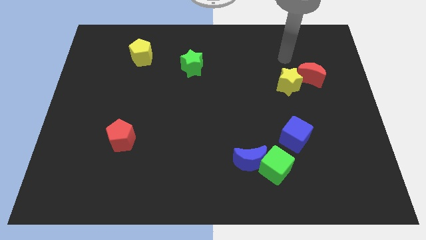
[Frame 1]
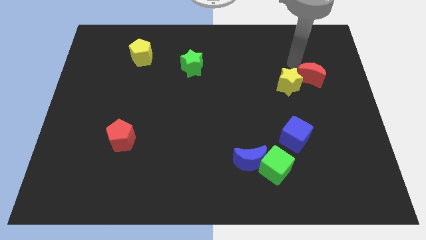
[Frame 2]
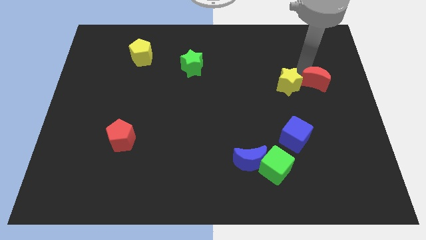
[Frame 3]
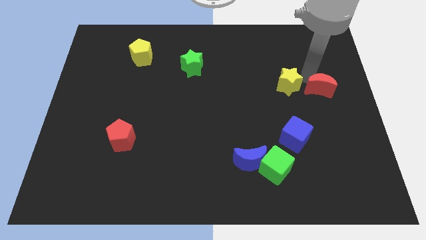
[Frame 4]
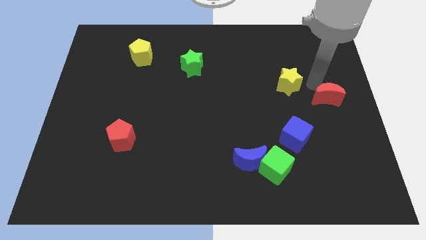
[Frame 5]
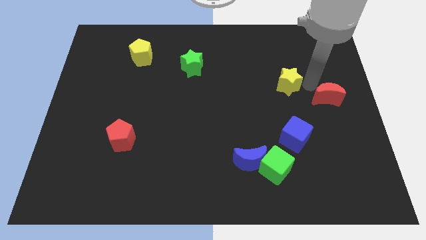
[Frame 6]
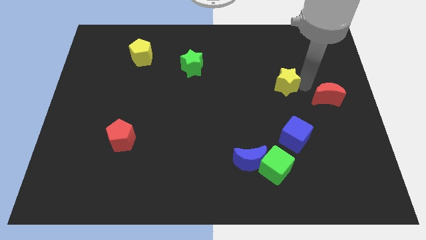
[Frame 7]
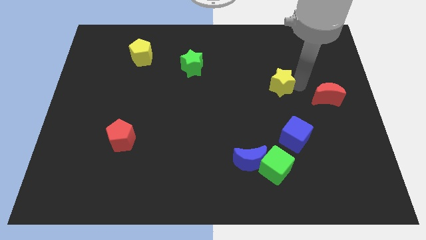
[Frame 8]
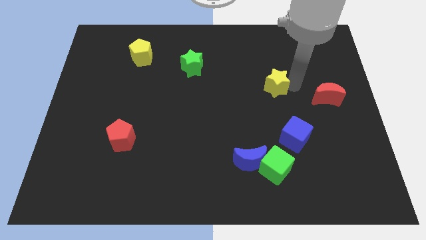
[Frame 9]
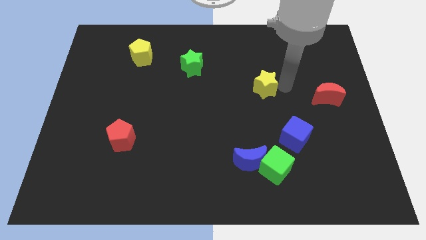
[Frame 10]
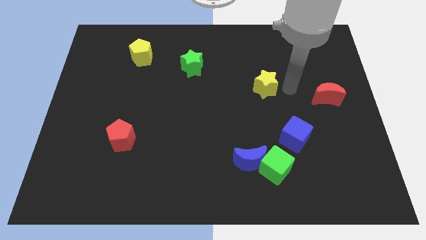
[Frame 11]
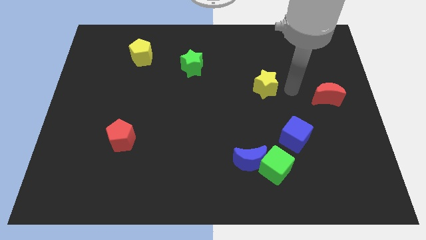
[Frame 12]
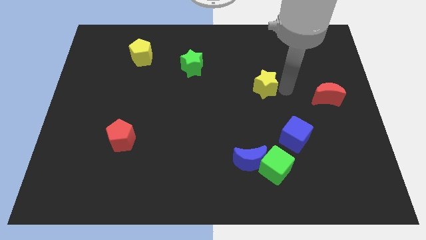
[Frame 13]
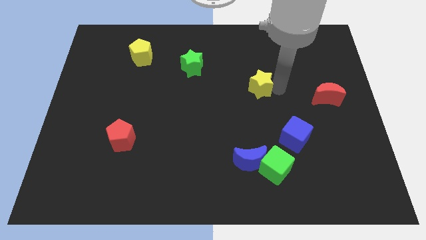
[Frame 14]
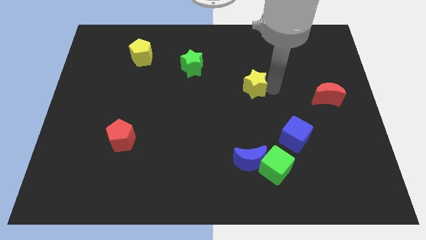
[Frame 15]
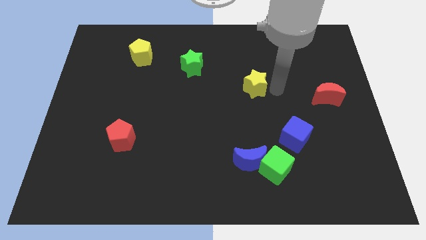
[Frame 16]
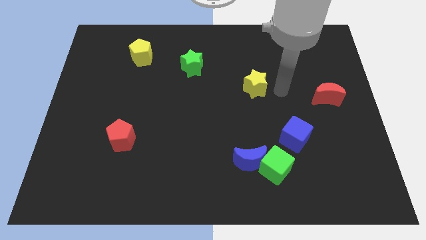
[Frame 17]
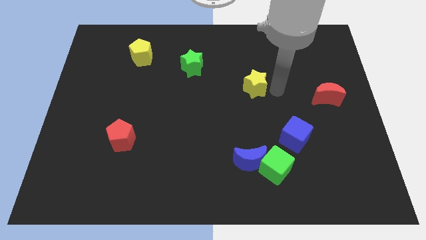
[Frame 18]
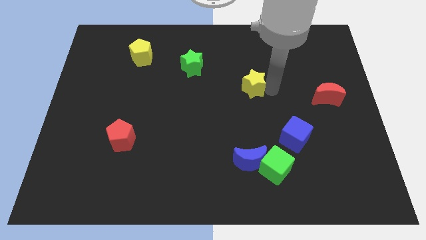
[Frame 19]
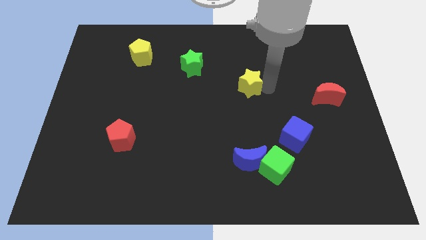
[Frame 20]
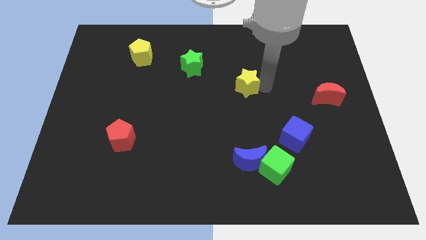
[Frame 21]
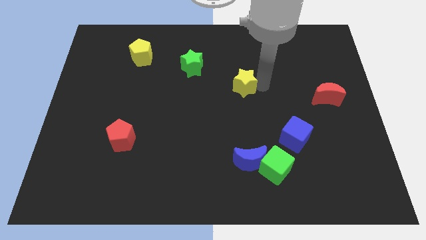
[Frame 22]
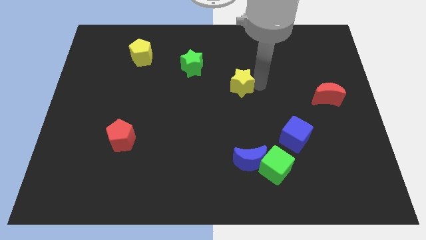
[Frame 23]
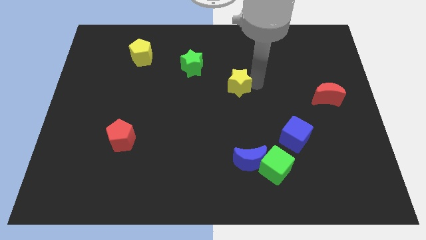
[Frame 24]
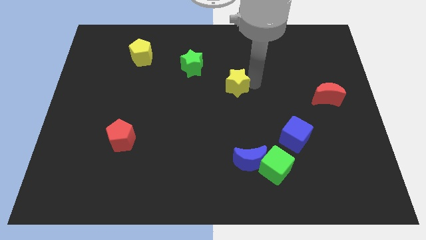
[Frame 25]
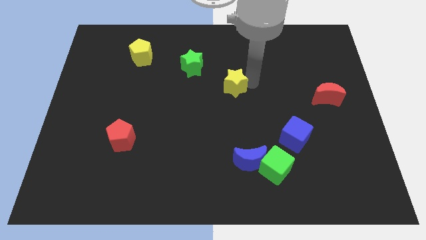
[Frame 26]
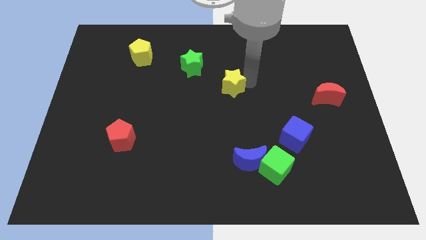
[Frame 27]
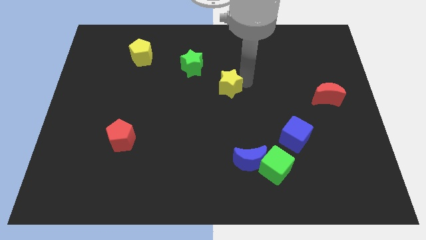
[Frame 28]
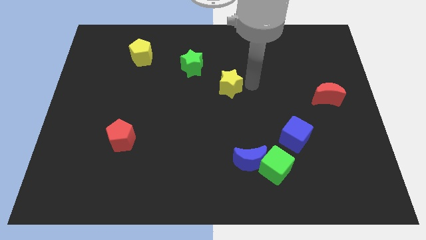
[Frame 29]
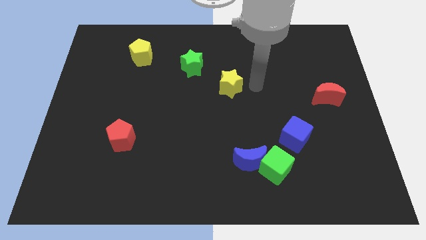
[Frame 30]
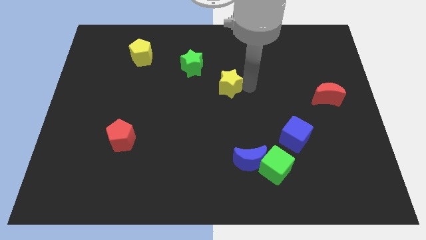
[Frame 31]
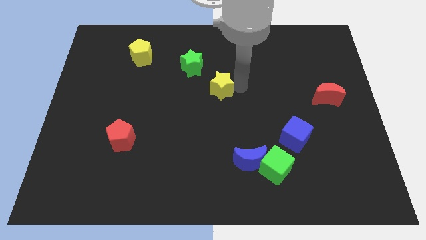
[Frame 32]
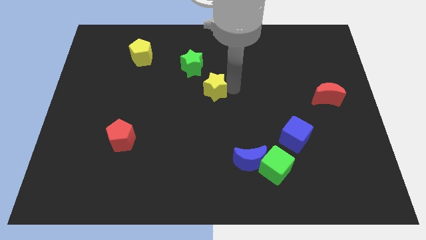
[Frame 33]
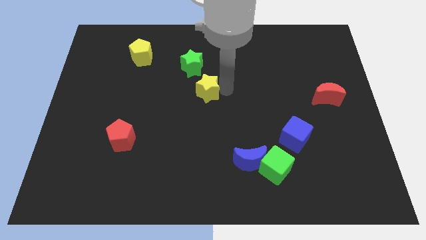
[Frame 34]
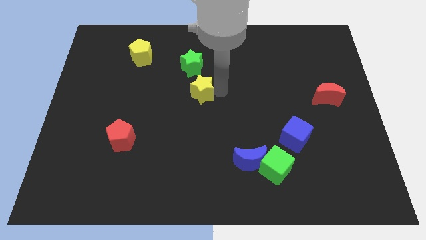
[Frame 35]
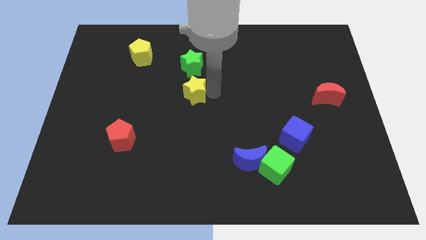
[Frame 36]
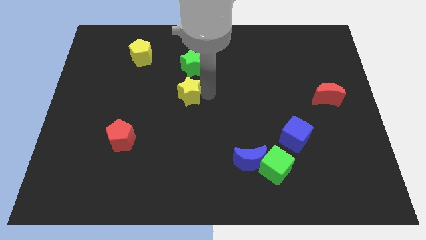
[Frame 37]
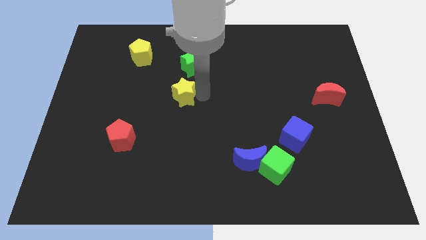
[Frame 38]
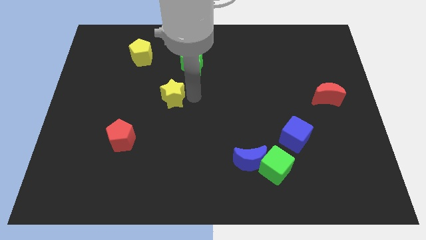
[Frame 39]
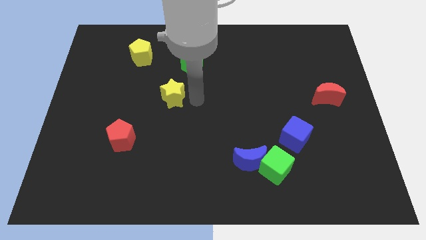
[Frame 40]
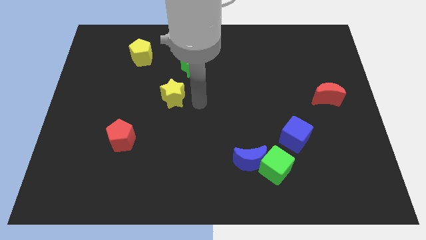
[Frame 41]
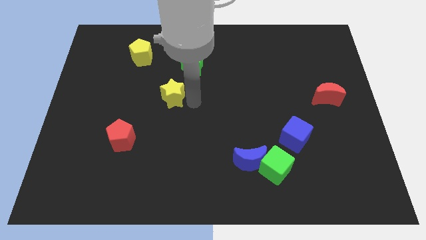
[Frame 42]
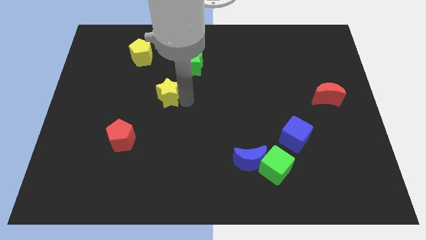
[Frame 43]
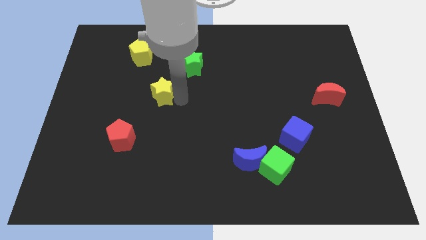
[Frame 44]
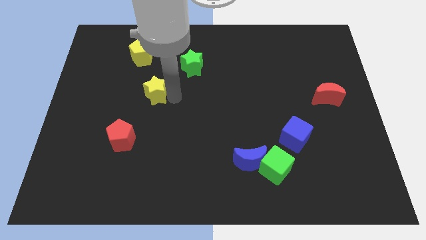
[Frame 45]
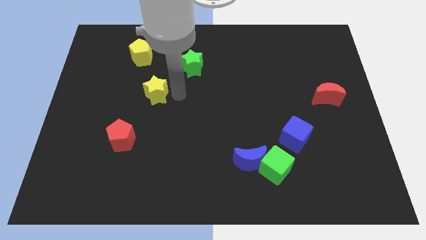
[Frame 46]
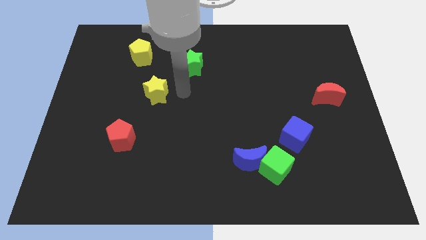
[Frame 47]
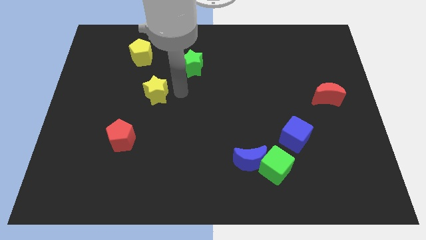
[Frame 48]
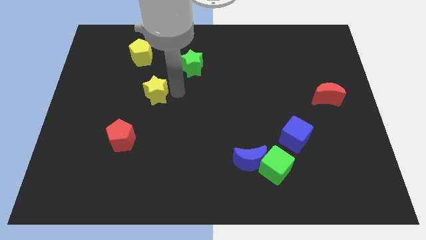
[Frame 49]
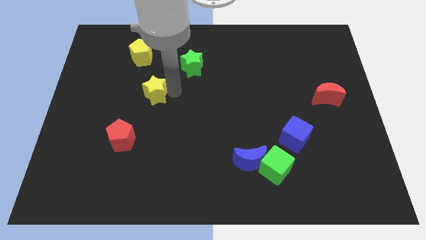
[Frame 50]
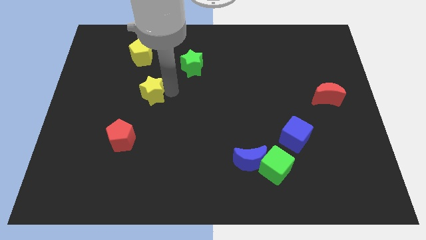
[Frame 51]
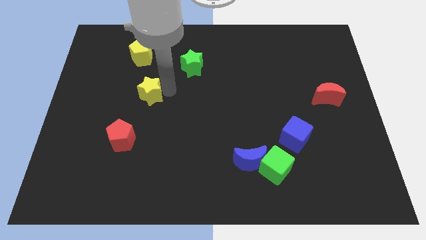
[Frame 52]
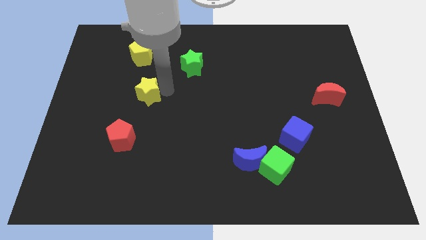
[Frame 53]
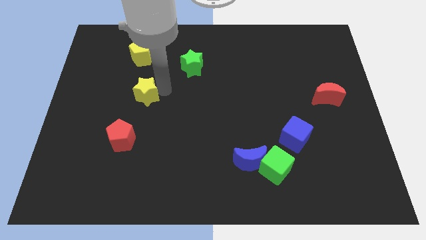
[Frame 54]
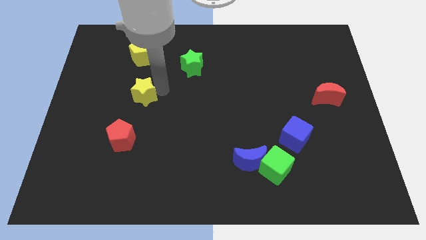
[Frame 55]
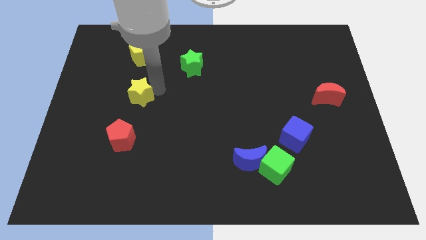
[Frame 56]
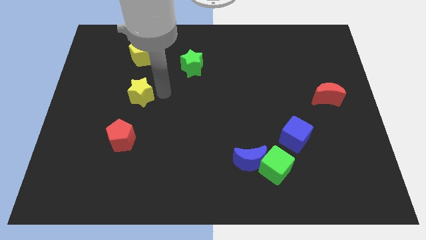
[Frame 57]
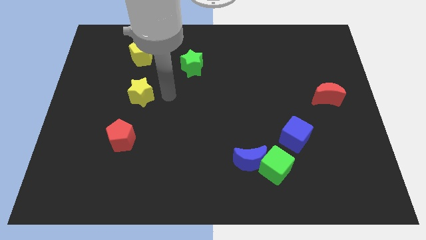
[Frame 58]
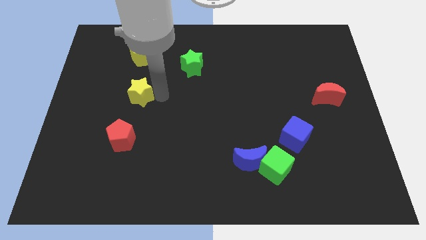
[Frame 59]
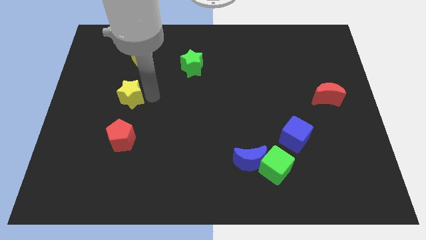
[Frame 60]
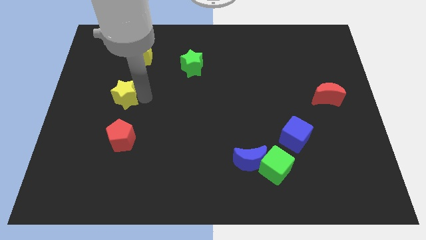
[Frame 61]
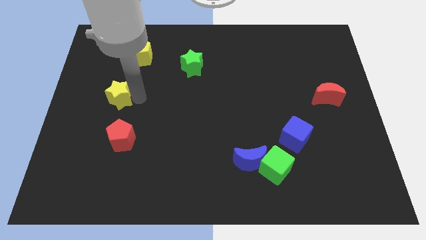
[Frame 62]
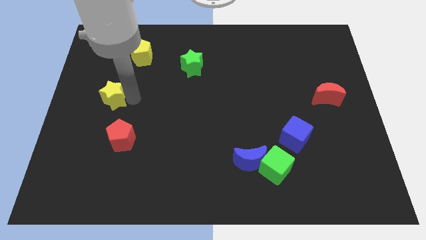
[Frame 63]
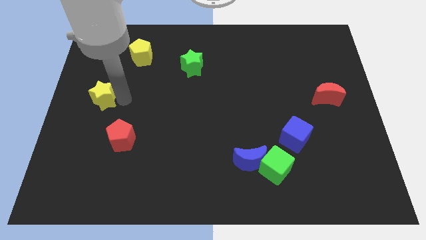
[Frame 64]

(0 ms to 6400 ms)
put the yellow star to the left side of the board
